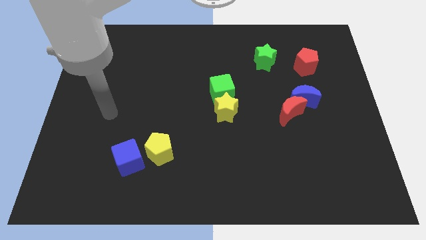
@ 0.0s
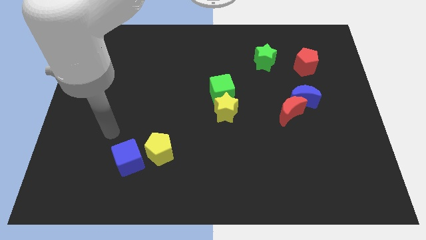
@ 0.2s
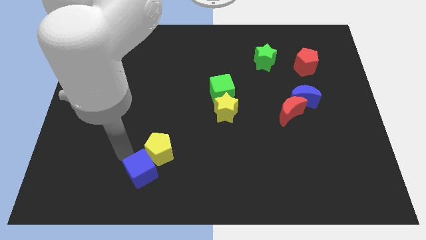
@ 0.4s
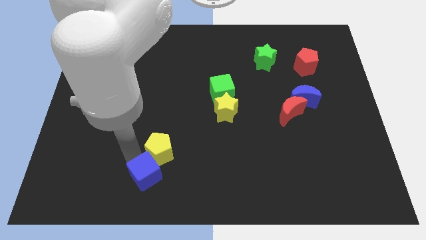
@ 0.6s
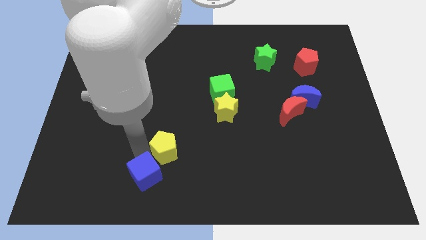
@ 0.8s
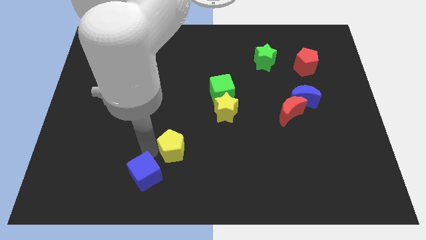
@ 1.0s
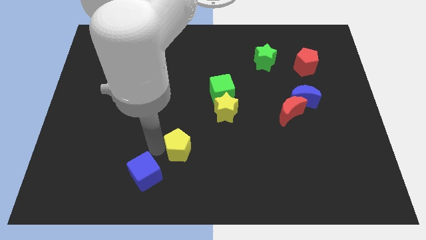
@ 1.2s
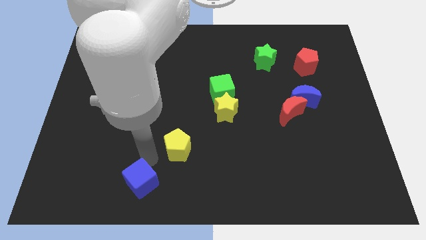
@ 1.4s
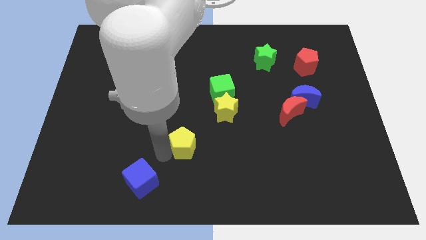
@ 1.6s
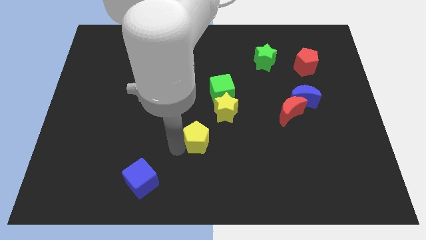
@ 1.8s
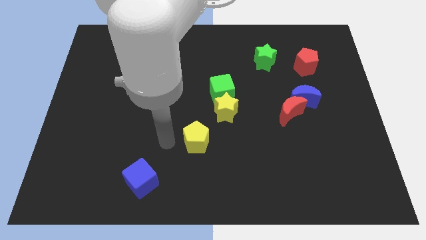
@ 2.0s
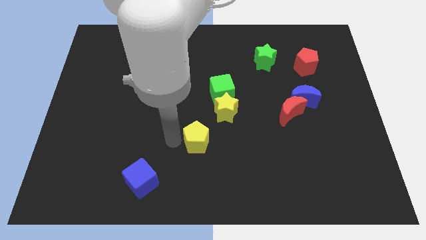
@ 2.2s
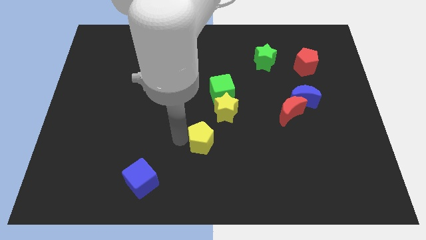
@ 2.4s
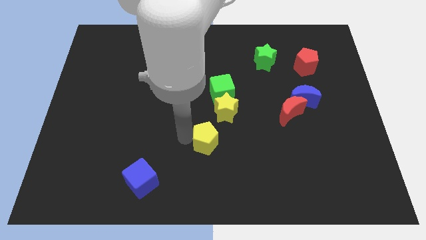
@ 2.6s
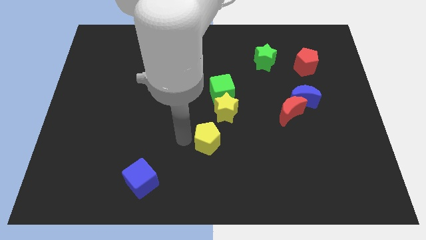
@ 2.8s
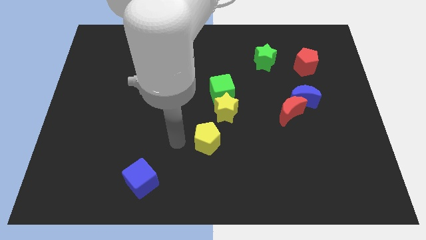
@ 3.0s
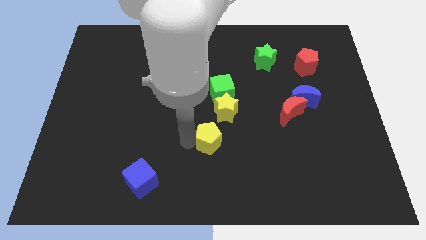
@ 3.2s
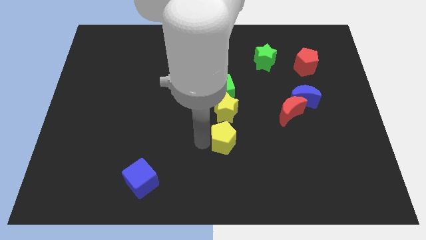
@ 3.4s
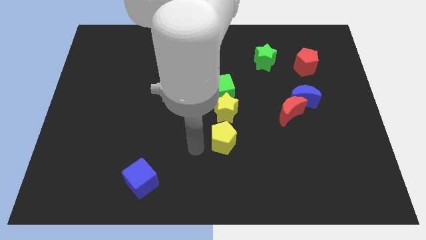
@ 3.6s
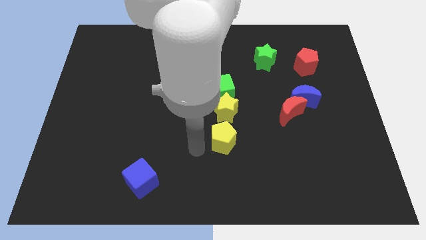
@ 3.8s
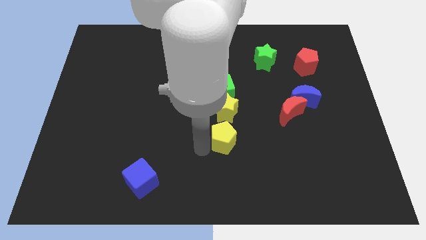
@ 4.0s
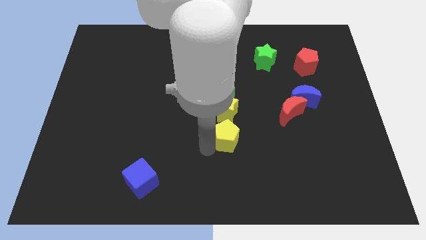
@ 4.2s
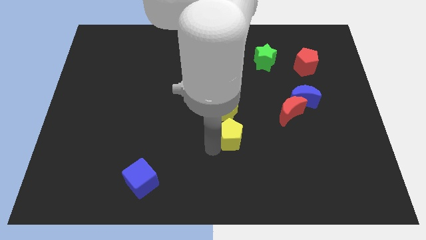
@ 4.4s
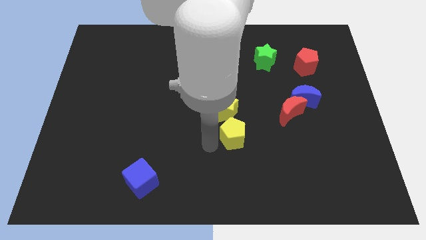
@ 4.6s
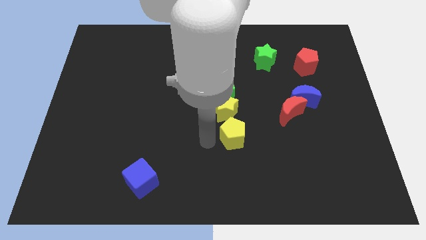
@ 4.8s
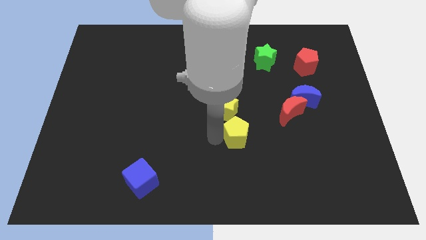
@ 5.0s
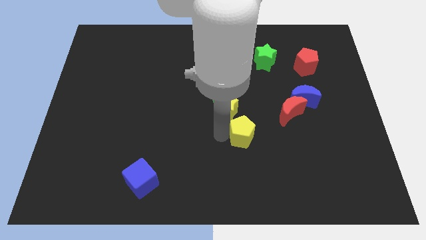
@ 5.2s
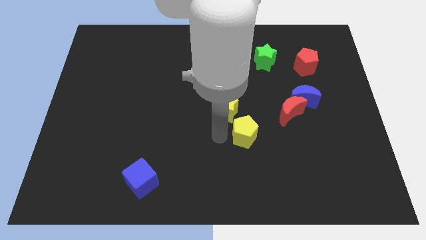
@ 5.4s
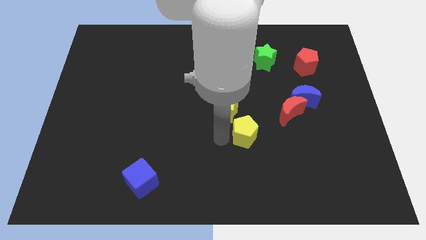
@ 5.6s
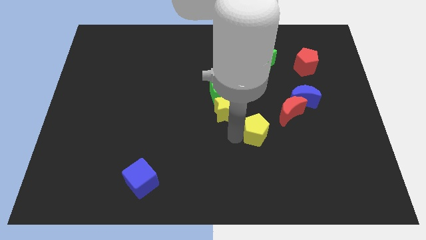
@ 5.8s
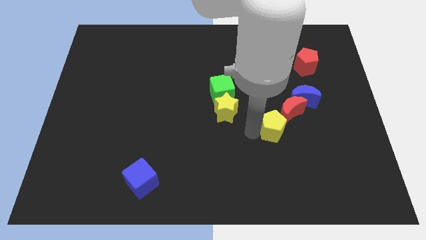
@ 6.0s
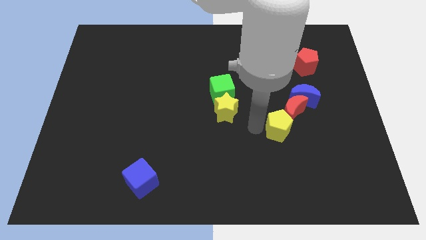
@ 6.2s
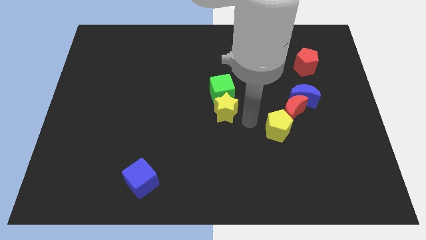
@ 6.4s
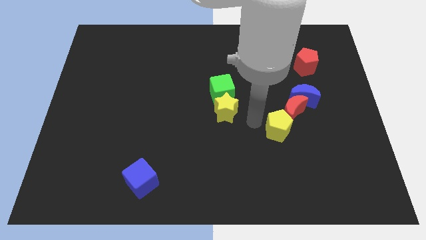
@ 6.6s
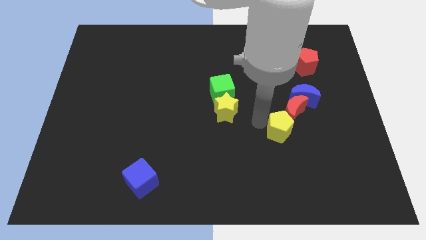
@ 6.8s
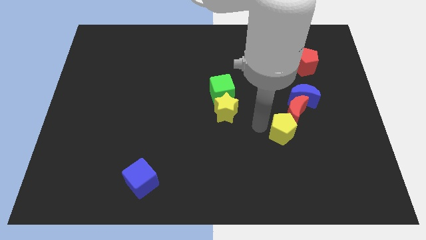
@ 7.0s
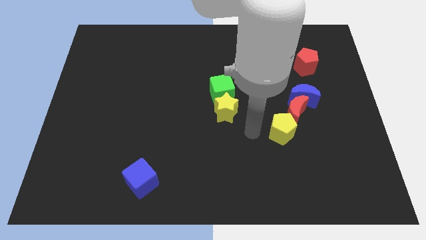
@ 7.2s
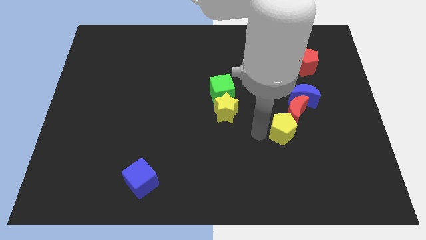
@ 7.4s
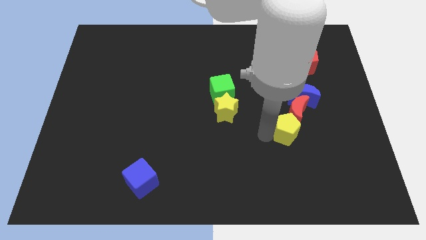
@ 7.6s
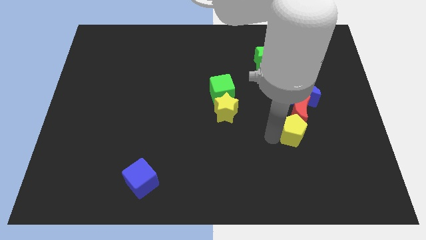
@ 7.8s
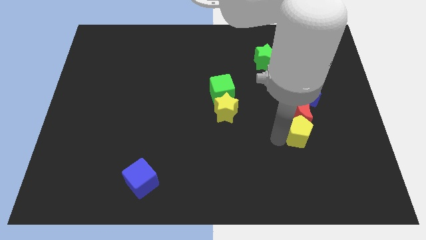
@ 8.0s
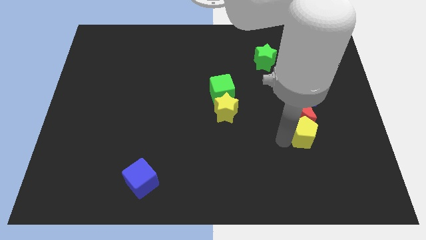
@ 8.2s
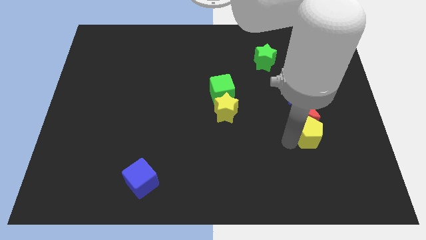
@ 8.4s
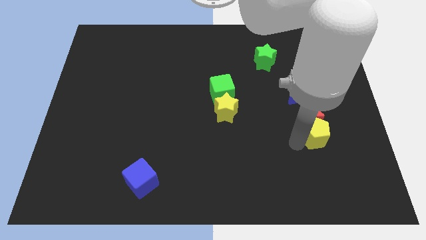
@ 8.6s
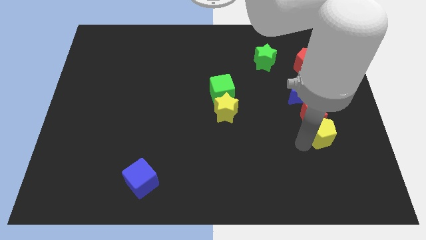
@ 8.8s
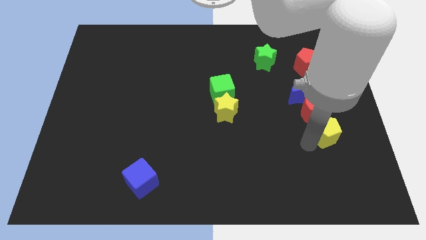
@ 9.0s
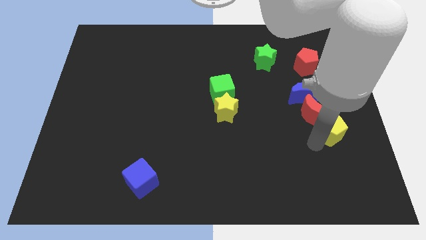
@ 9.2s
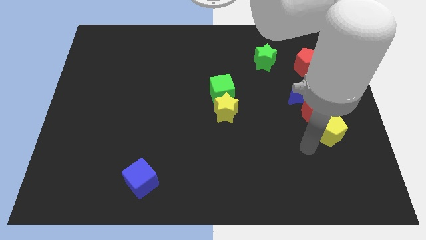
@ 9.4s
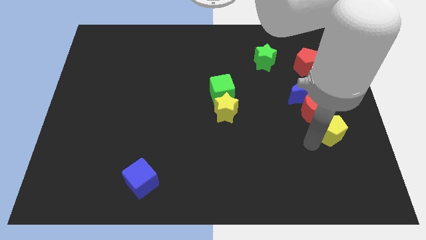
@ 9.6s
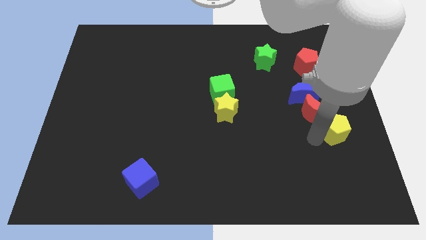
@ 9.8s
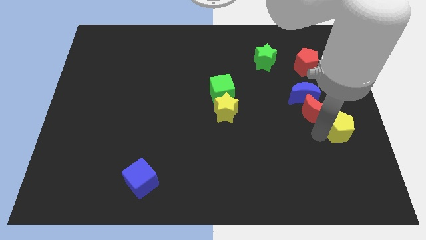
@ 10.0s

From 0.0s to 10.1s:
slide the yellow pentagon to the right side

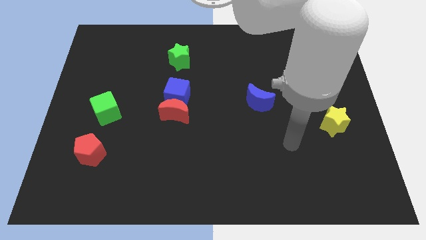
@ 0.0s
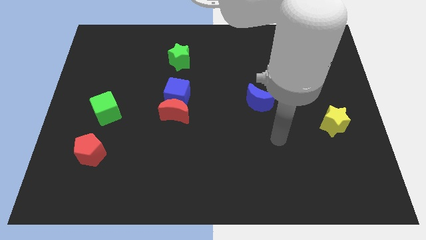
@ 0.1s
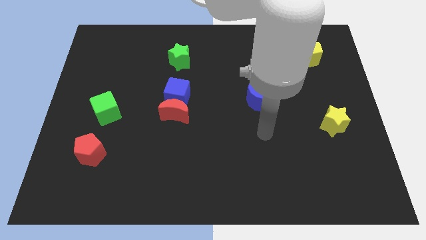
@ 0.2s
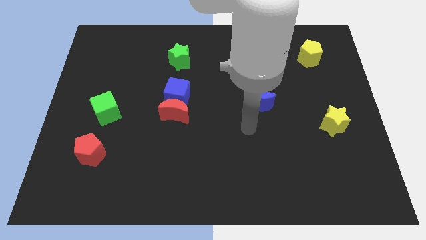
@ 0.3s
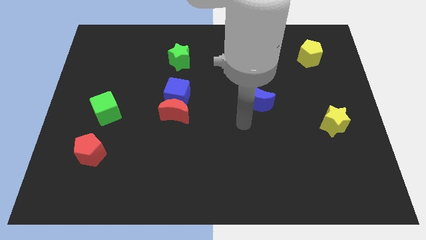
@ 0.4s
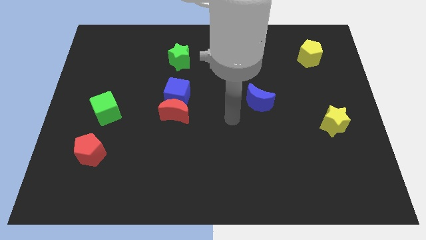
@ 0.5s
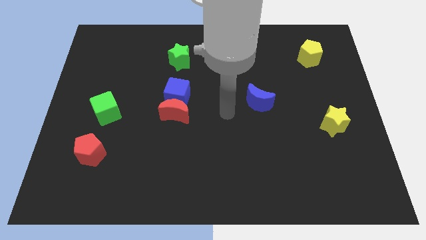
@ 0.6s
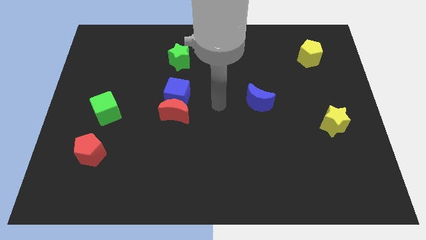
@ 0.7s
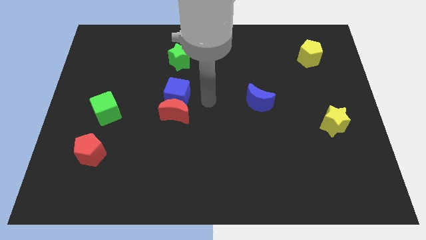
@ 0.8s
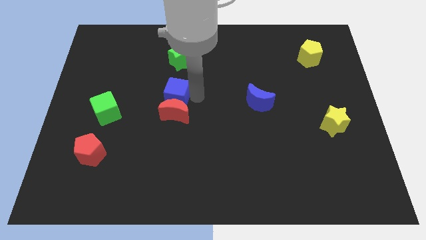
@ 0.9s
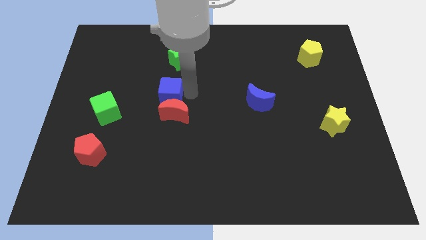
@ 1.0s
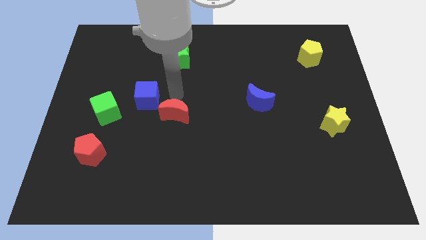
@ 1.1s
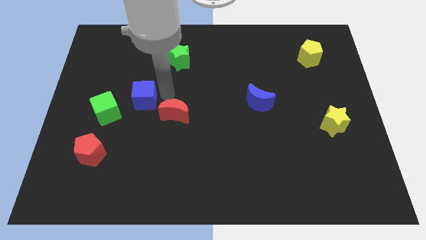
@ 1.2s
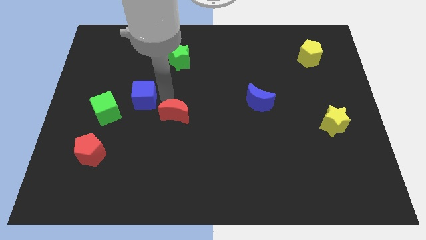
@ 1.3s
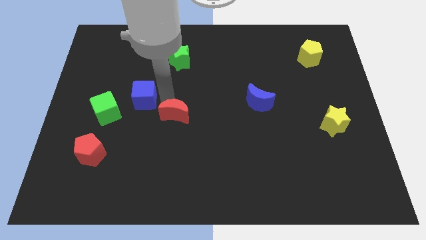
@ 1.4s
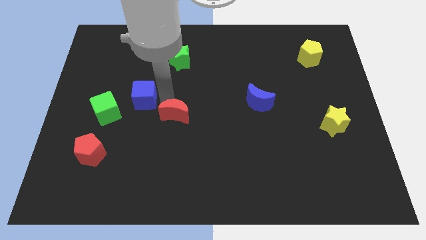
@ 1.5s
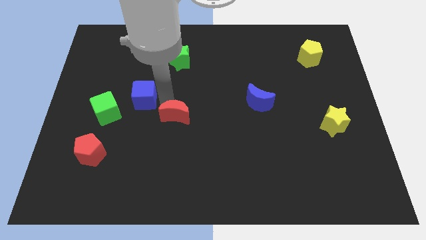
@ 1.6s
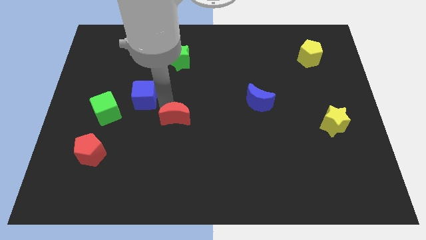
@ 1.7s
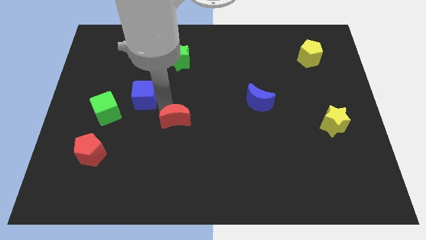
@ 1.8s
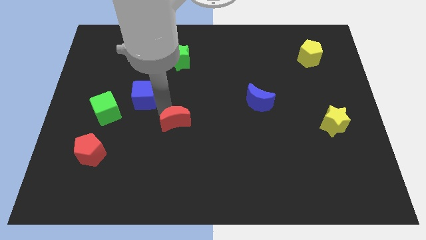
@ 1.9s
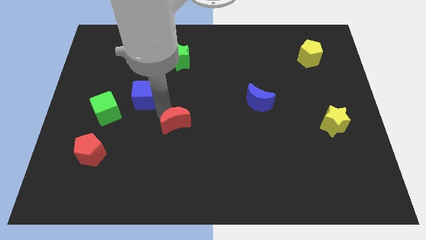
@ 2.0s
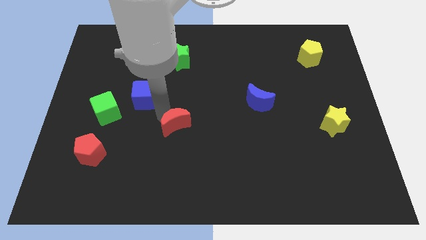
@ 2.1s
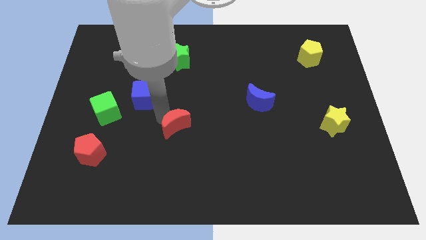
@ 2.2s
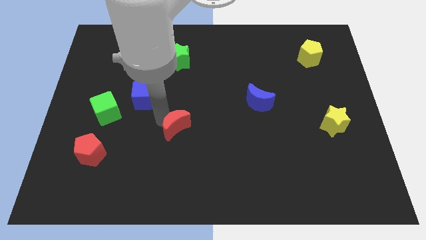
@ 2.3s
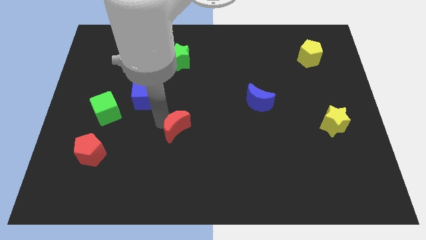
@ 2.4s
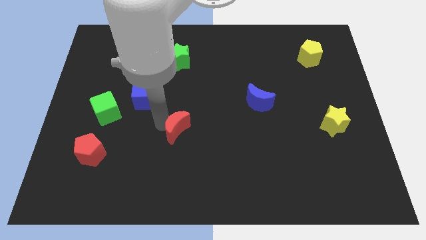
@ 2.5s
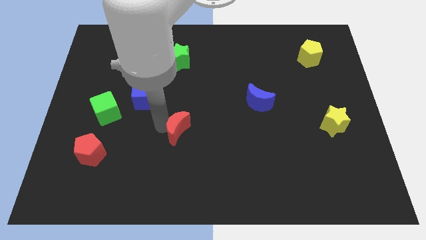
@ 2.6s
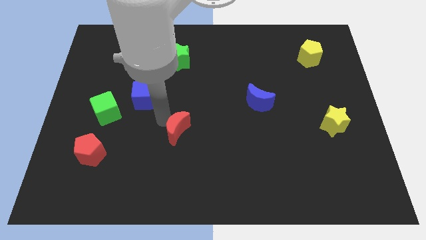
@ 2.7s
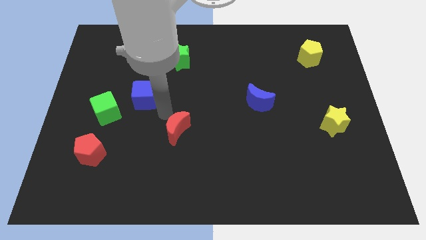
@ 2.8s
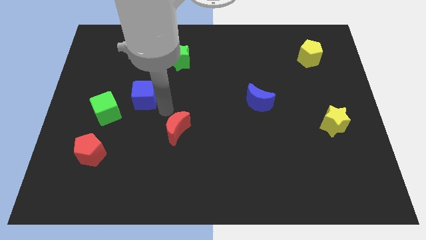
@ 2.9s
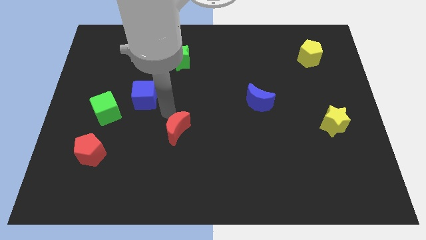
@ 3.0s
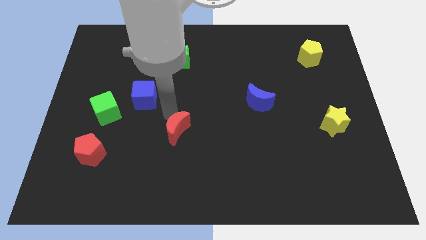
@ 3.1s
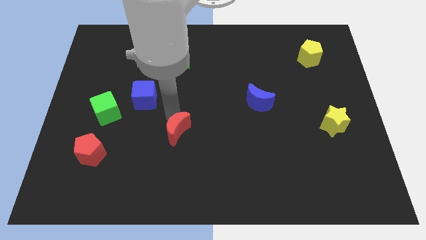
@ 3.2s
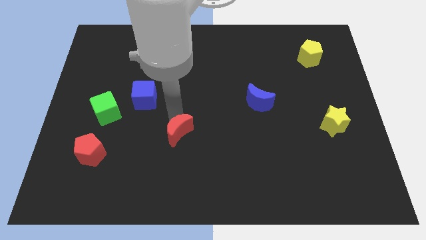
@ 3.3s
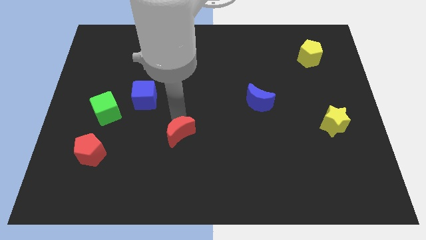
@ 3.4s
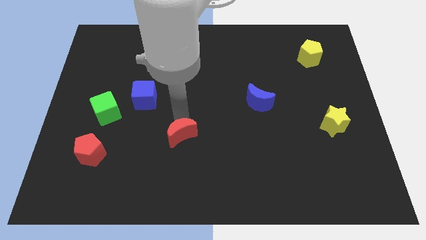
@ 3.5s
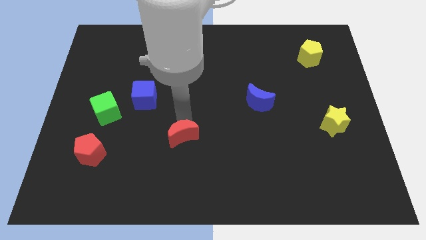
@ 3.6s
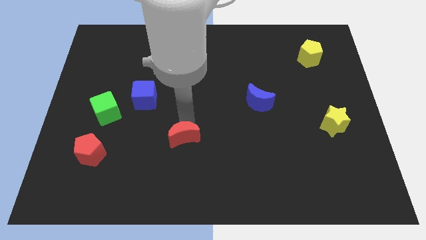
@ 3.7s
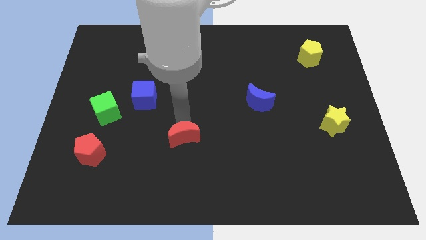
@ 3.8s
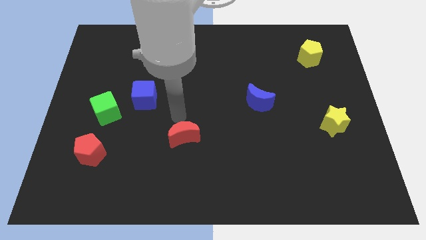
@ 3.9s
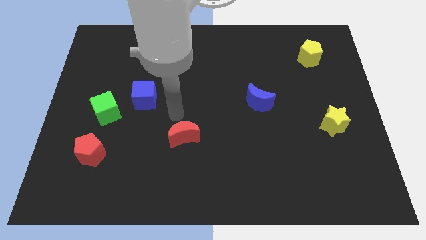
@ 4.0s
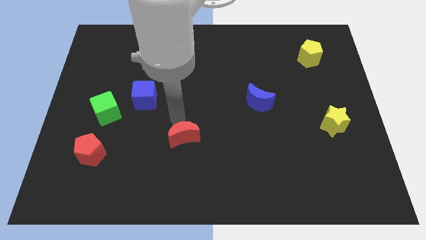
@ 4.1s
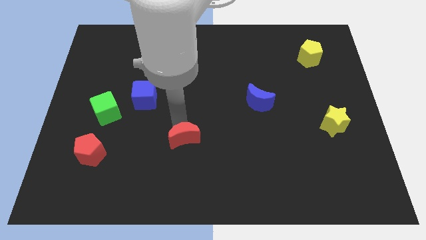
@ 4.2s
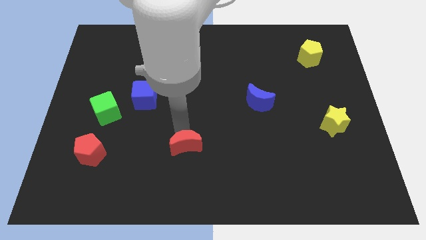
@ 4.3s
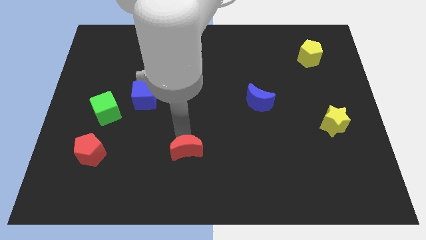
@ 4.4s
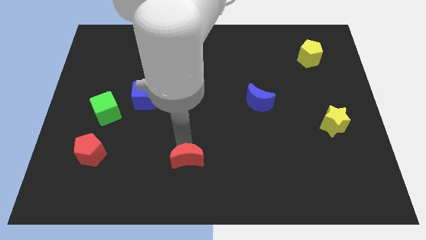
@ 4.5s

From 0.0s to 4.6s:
put the red moon to the bottom side
